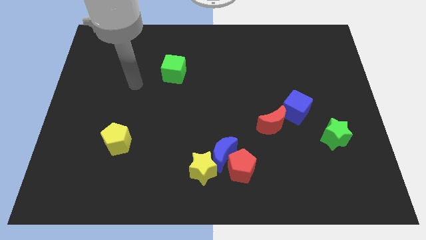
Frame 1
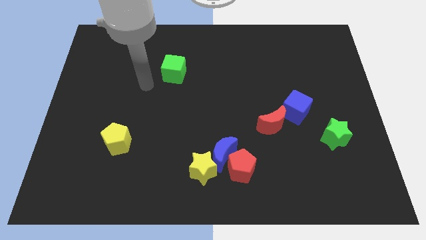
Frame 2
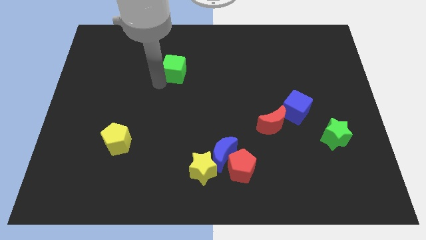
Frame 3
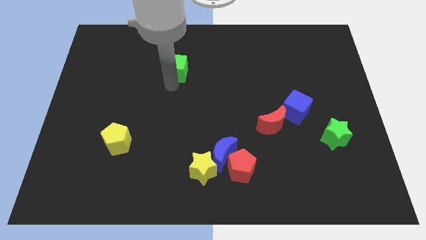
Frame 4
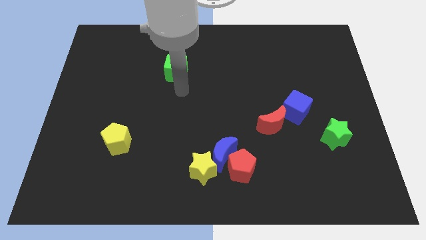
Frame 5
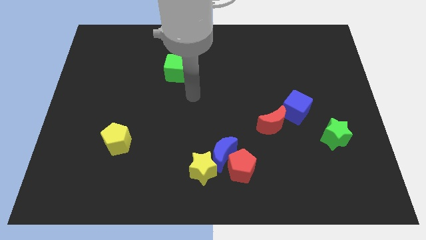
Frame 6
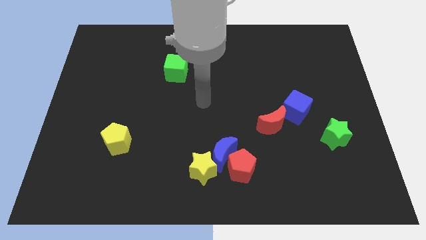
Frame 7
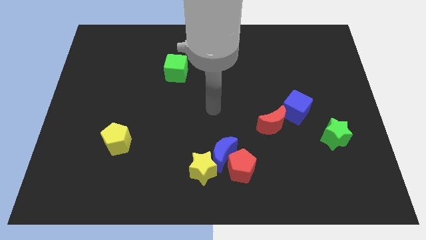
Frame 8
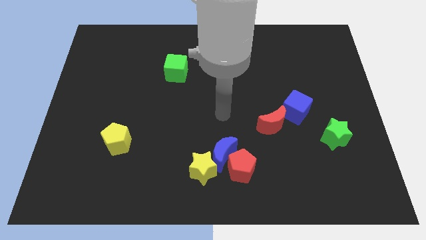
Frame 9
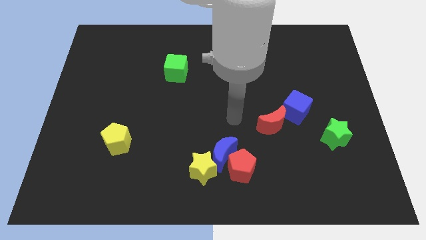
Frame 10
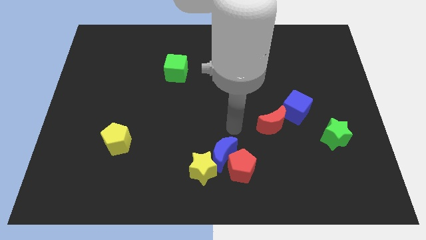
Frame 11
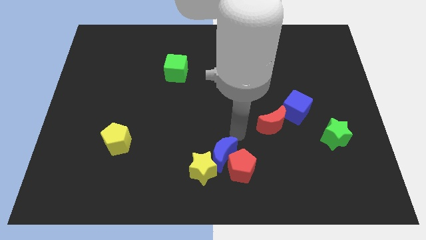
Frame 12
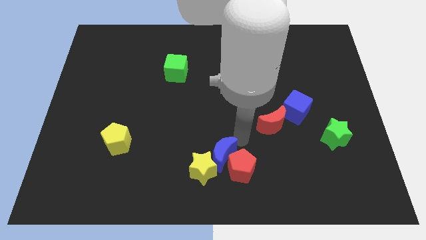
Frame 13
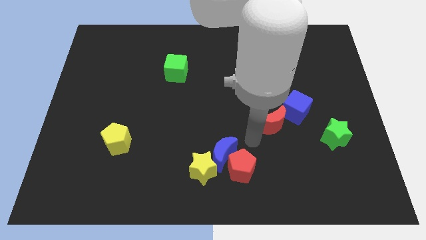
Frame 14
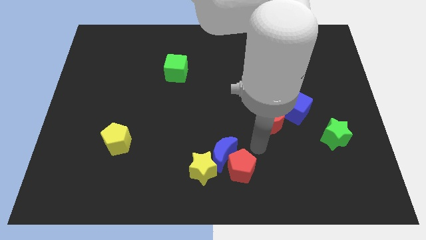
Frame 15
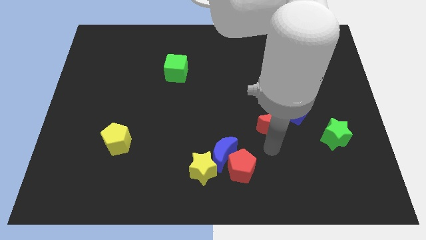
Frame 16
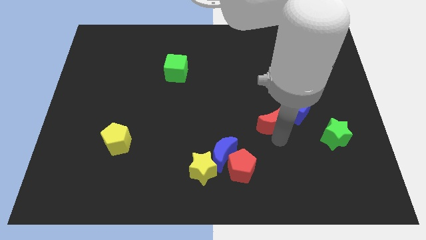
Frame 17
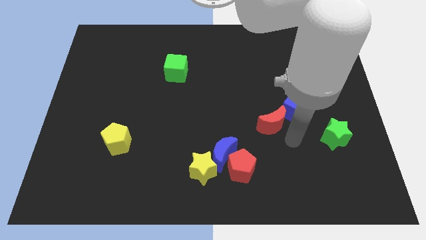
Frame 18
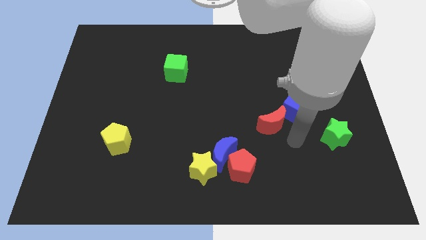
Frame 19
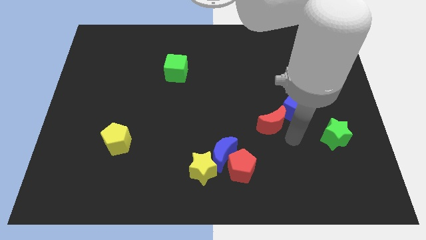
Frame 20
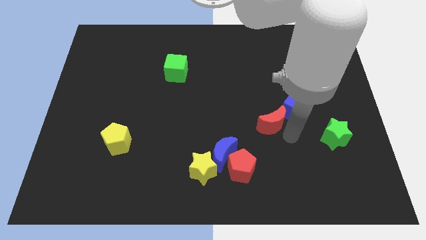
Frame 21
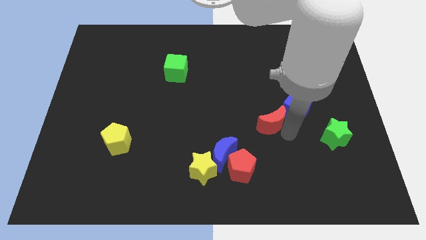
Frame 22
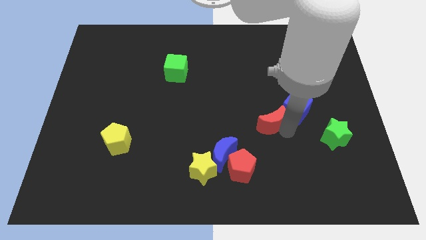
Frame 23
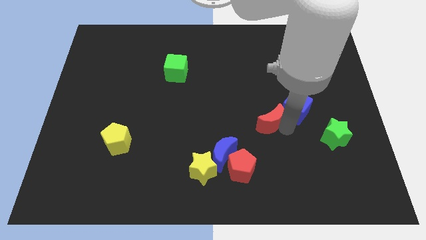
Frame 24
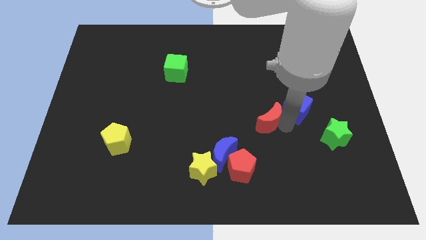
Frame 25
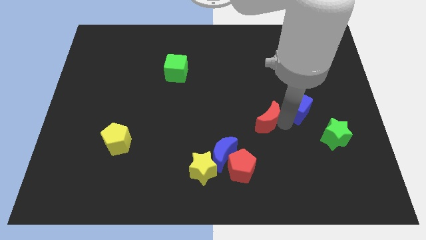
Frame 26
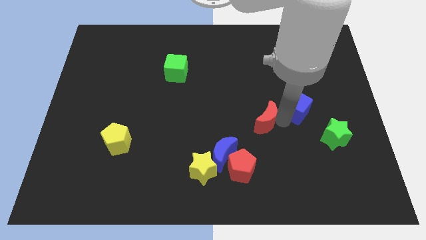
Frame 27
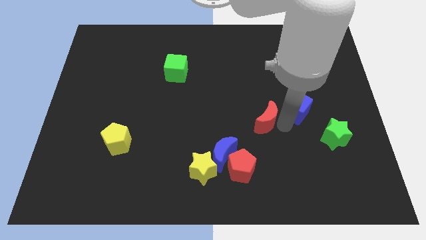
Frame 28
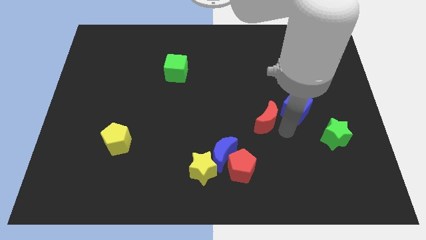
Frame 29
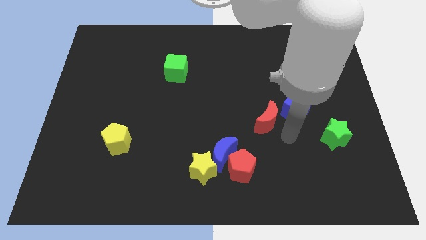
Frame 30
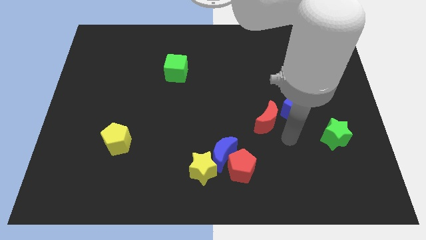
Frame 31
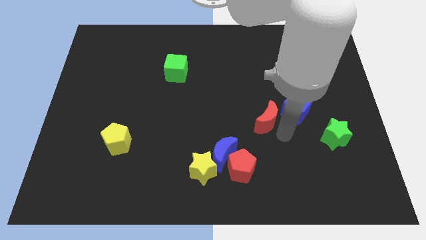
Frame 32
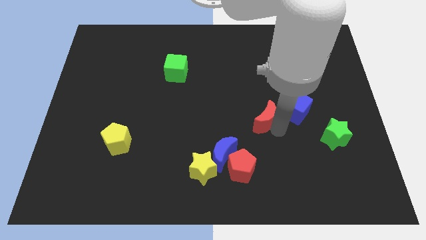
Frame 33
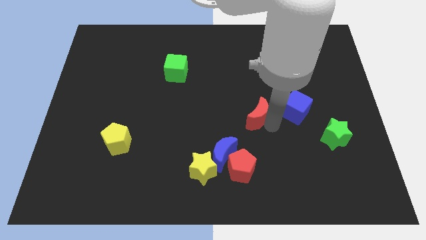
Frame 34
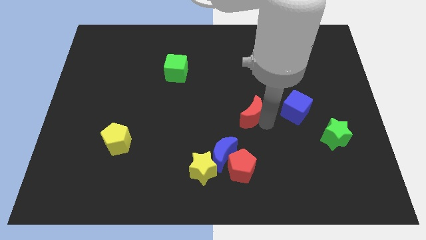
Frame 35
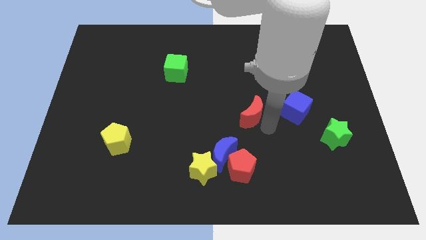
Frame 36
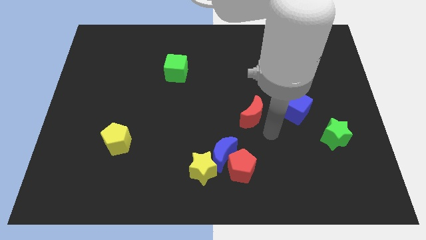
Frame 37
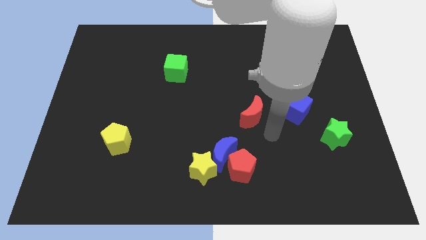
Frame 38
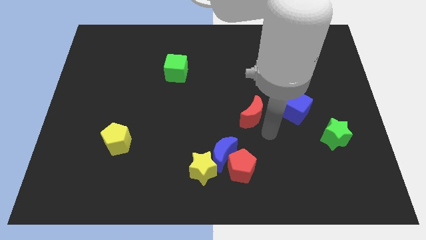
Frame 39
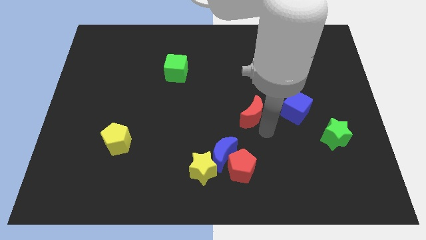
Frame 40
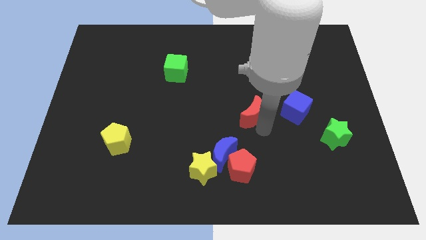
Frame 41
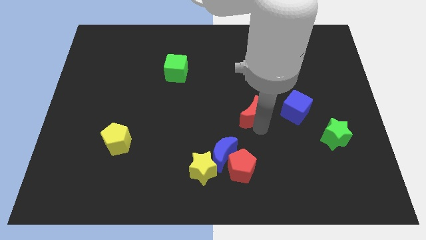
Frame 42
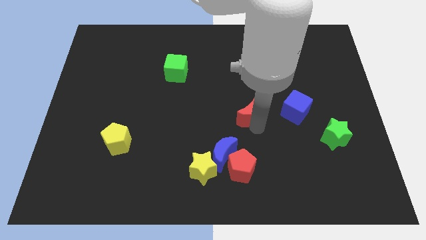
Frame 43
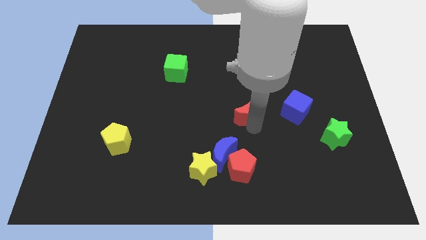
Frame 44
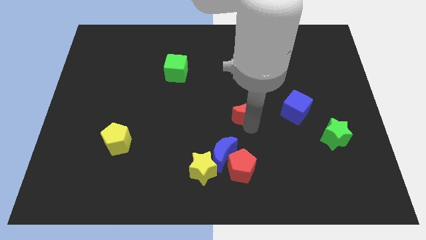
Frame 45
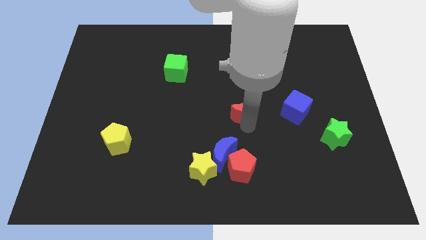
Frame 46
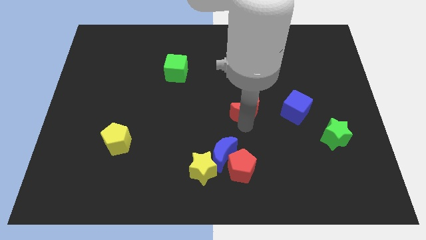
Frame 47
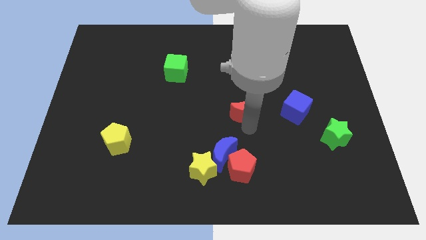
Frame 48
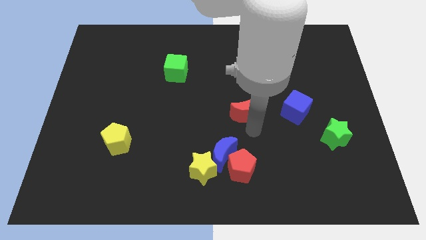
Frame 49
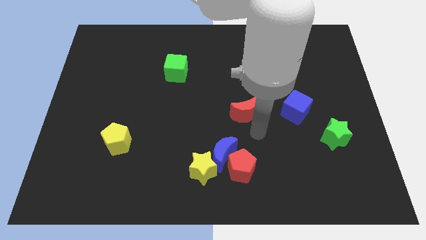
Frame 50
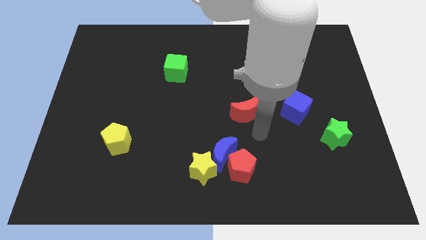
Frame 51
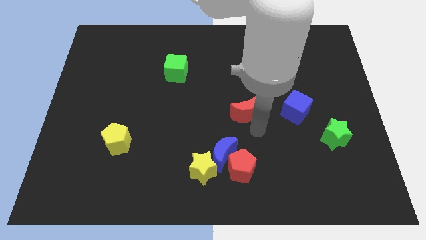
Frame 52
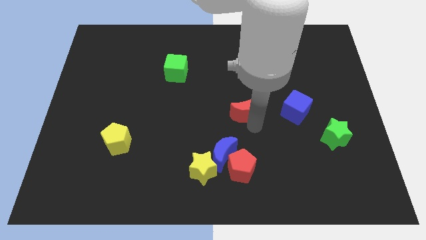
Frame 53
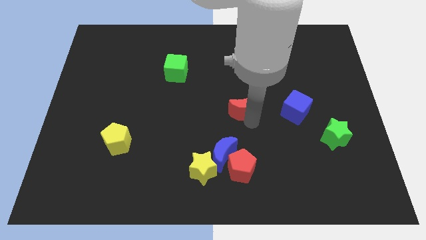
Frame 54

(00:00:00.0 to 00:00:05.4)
move the red moon slightly diagonally upwards and left

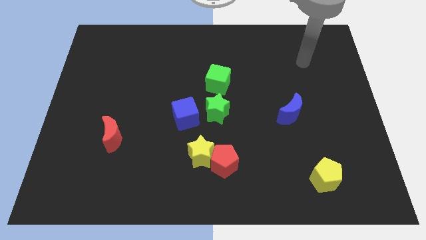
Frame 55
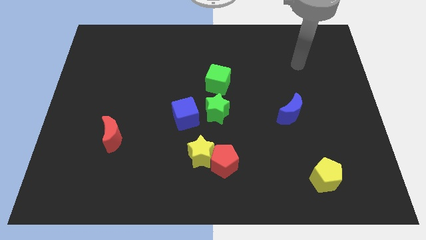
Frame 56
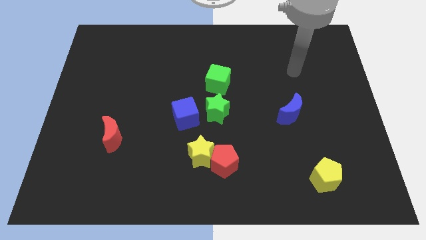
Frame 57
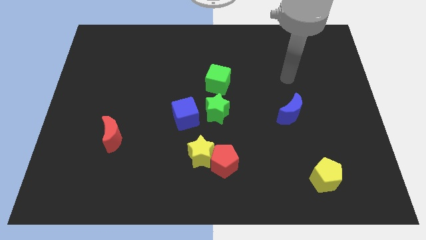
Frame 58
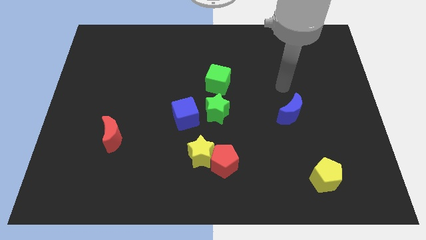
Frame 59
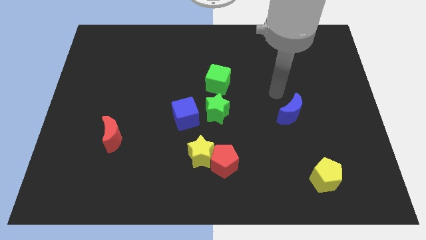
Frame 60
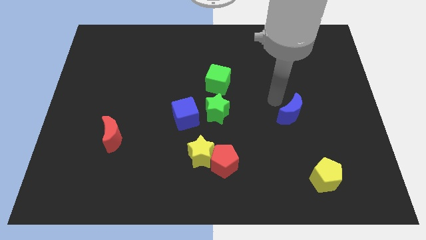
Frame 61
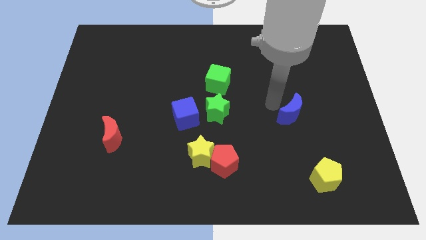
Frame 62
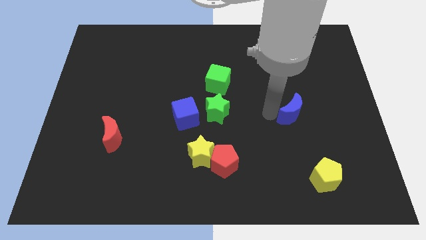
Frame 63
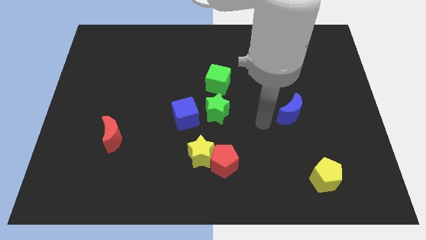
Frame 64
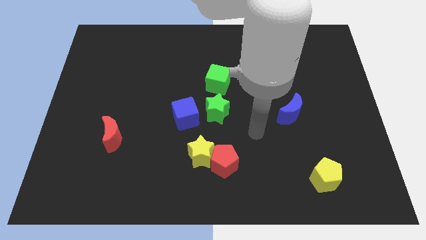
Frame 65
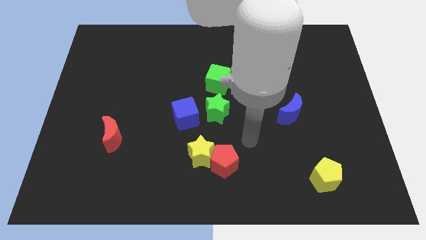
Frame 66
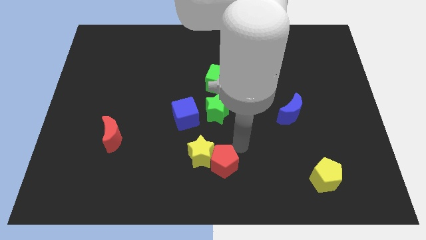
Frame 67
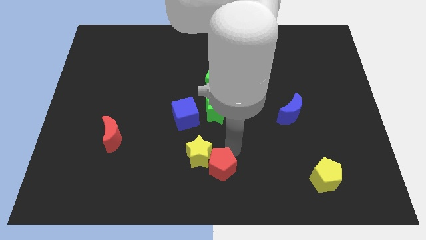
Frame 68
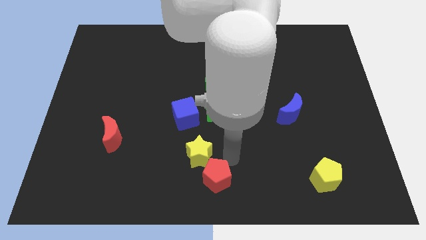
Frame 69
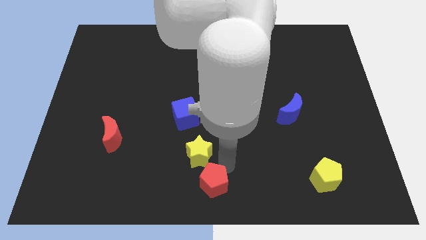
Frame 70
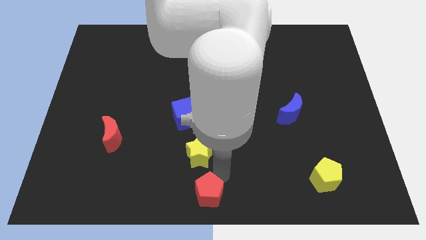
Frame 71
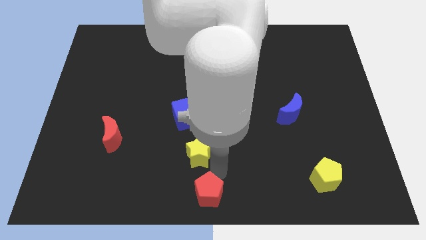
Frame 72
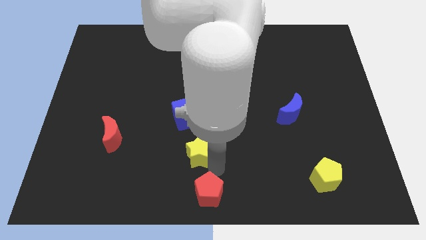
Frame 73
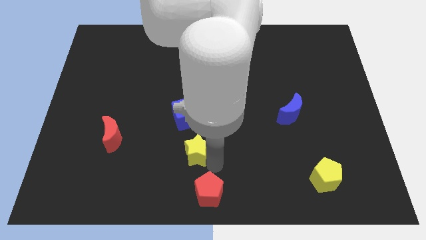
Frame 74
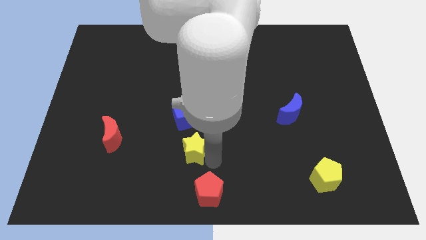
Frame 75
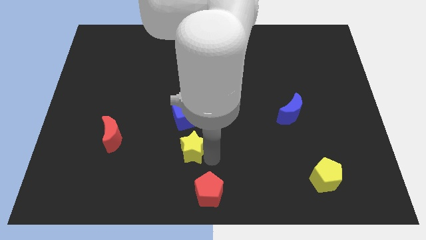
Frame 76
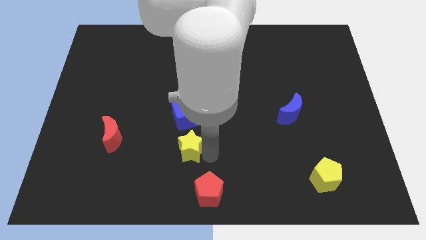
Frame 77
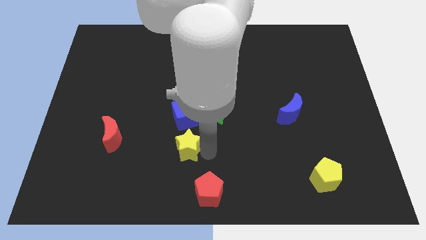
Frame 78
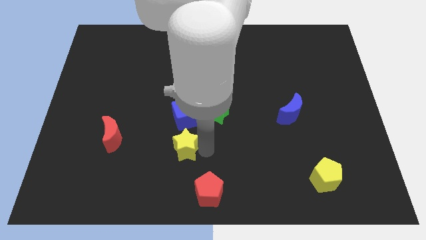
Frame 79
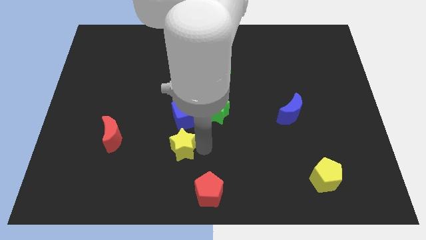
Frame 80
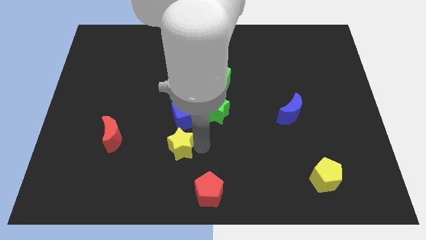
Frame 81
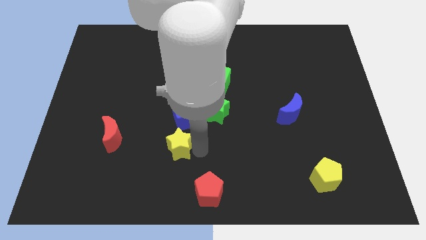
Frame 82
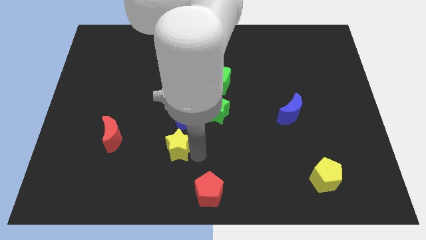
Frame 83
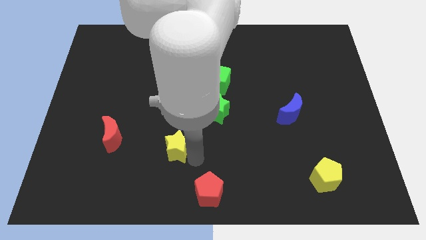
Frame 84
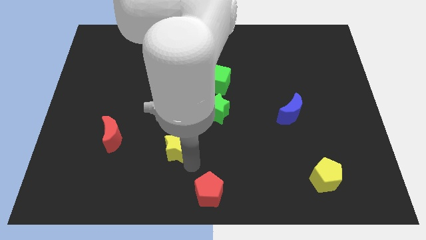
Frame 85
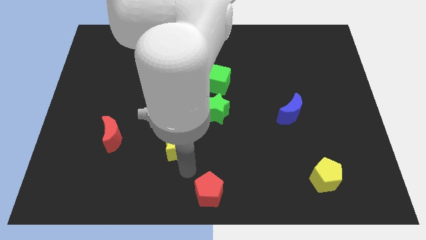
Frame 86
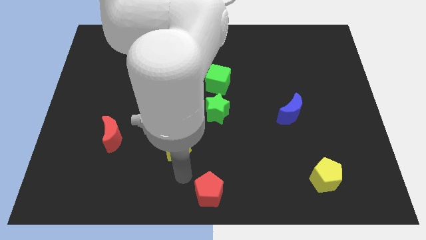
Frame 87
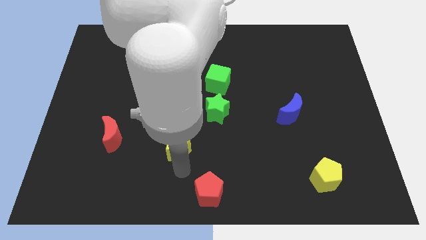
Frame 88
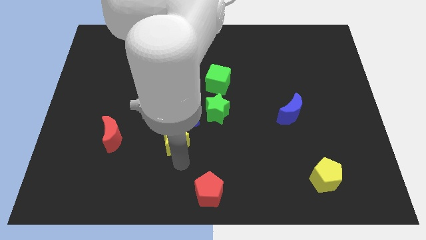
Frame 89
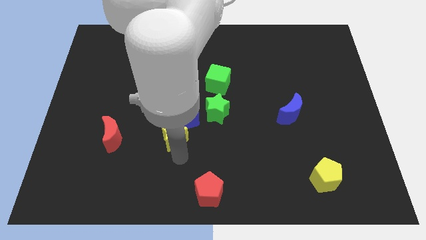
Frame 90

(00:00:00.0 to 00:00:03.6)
slightly slide the yellow star upwards and then to the left
